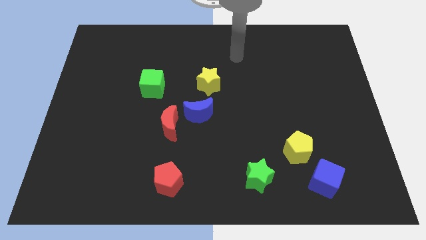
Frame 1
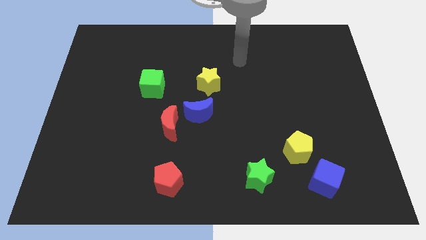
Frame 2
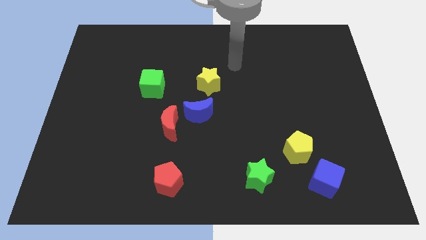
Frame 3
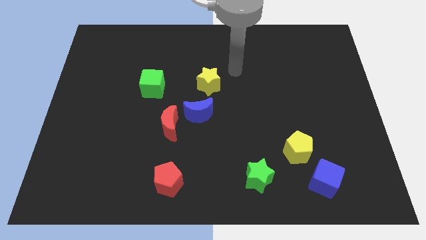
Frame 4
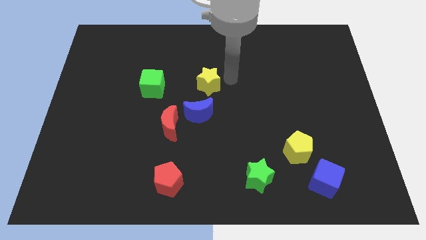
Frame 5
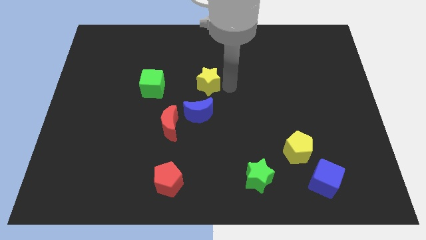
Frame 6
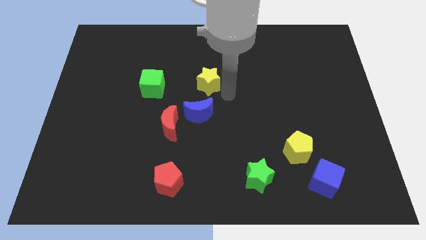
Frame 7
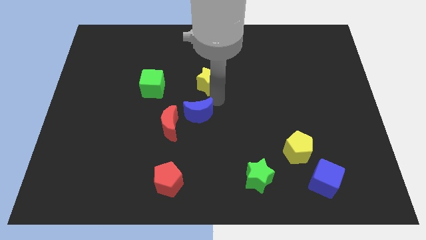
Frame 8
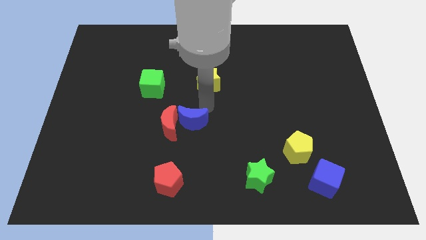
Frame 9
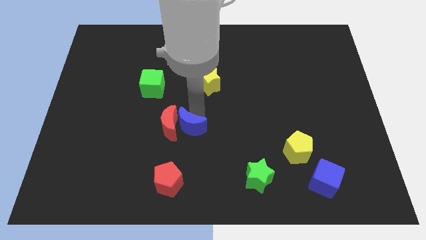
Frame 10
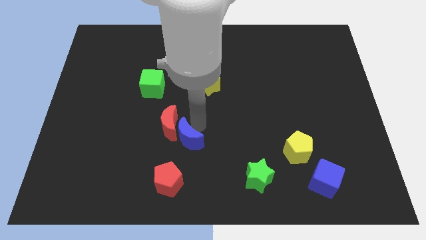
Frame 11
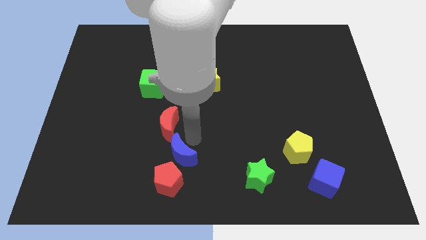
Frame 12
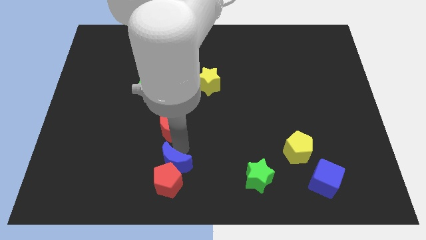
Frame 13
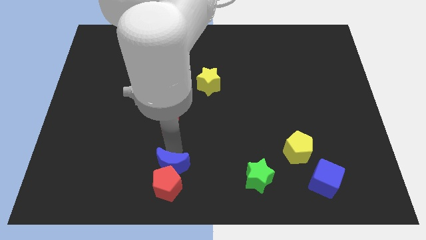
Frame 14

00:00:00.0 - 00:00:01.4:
separate the red moon from the blue moon

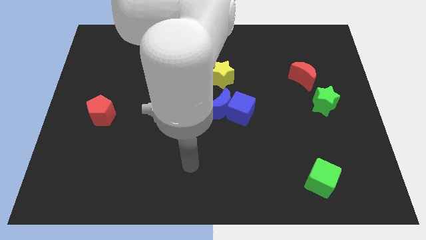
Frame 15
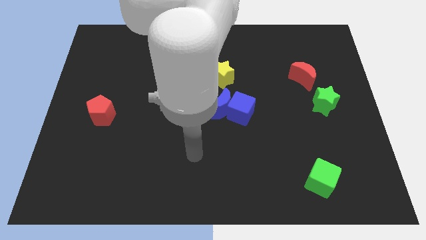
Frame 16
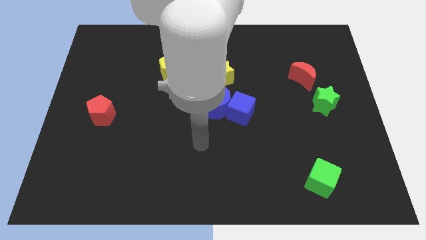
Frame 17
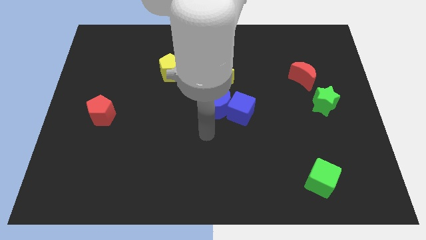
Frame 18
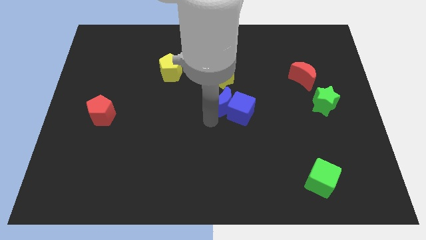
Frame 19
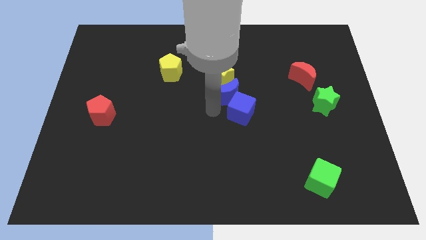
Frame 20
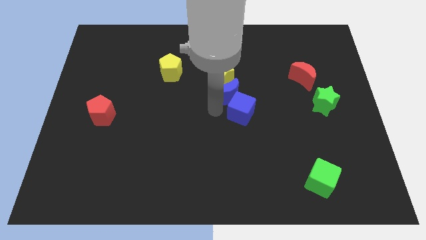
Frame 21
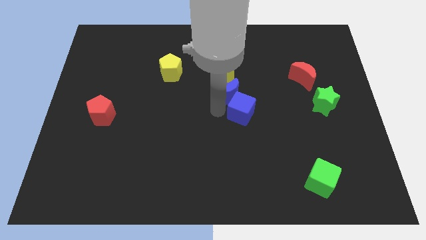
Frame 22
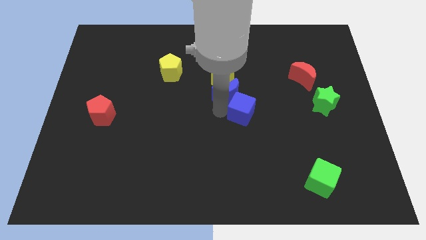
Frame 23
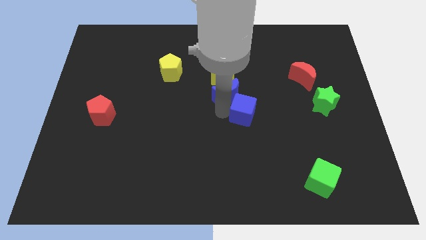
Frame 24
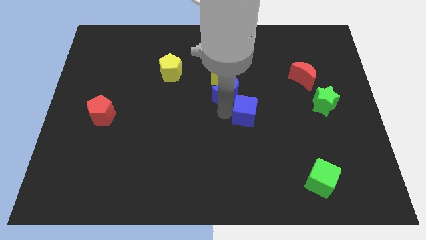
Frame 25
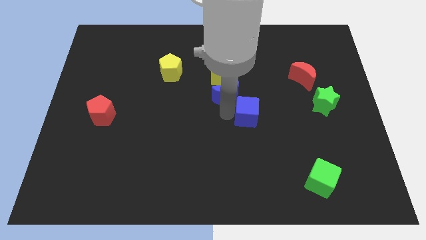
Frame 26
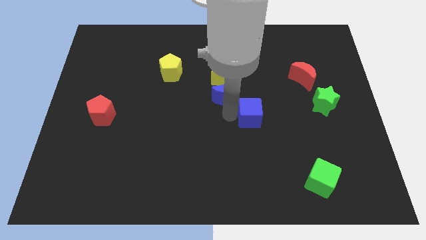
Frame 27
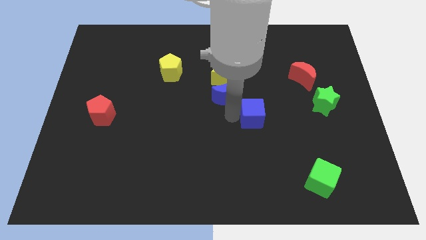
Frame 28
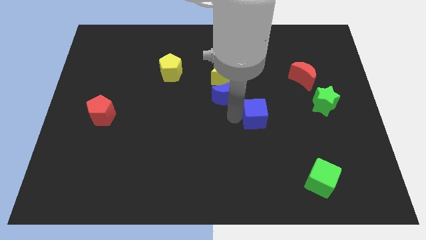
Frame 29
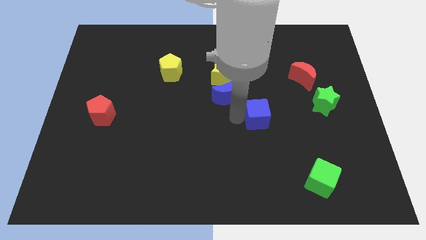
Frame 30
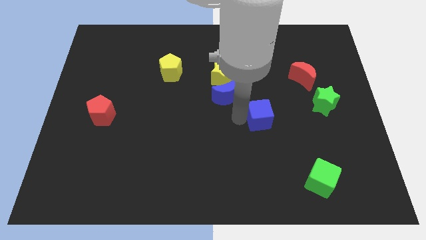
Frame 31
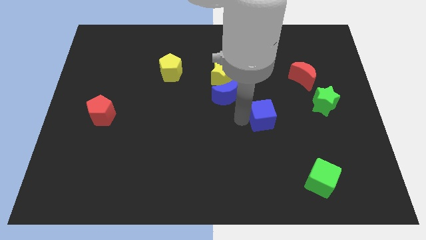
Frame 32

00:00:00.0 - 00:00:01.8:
move the blue cube away from the blue moon

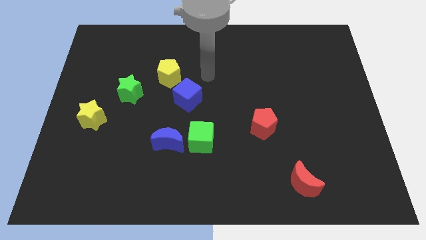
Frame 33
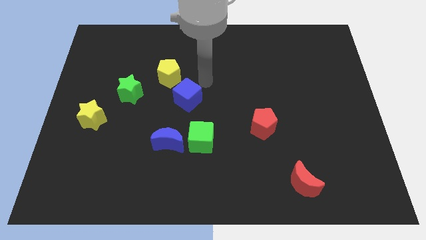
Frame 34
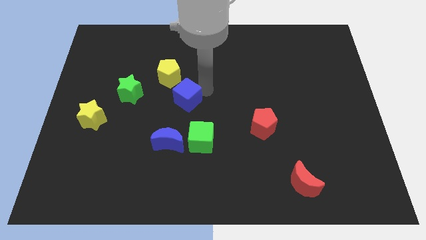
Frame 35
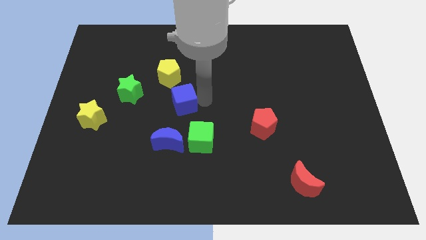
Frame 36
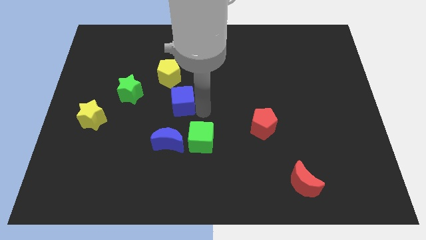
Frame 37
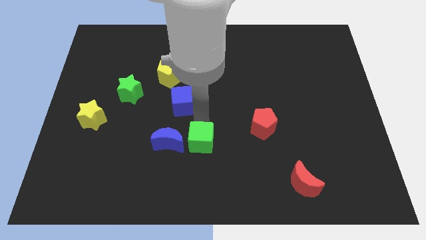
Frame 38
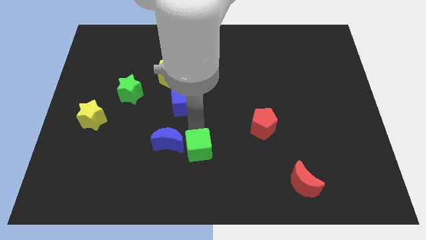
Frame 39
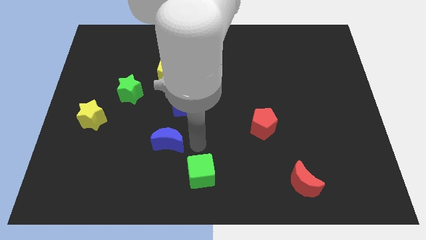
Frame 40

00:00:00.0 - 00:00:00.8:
move the blue moon away from the green cube

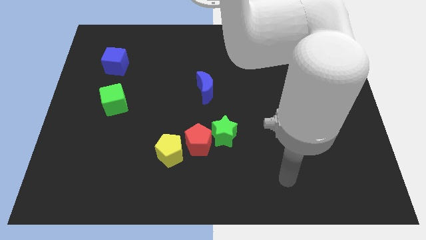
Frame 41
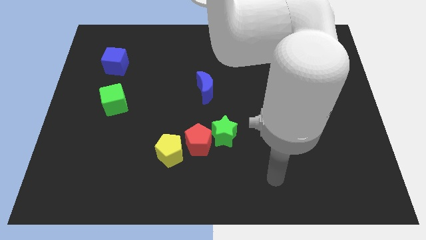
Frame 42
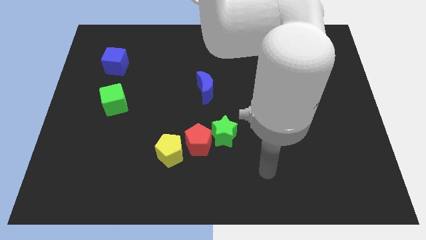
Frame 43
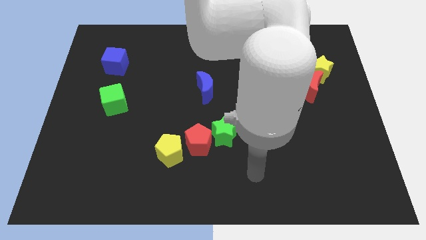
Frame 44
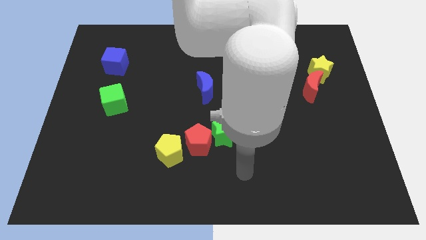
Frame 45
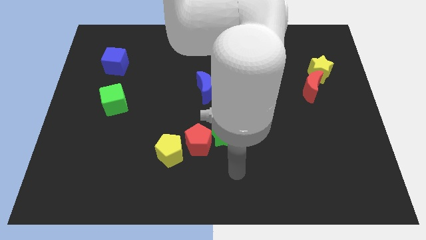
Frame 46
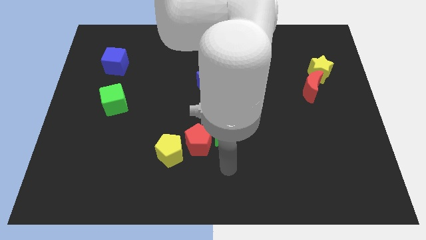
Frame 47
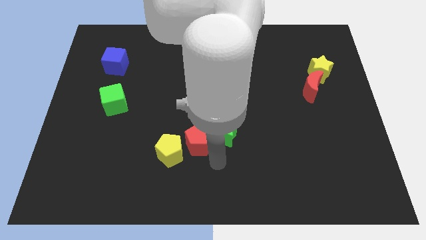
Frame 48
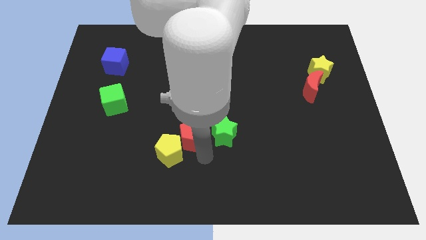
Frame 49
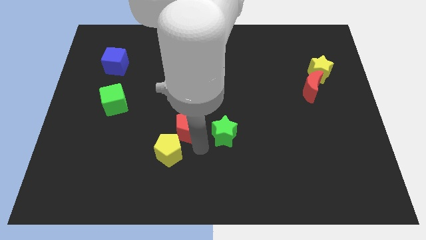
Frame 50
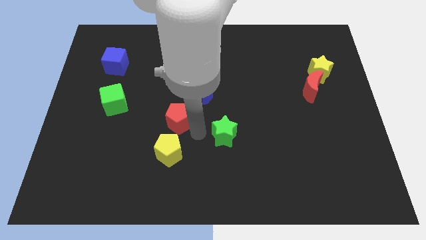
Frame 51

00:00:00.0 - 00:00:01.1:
separate the green star from the red pentagon

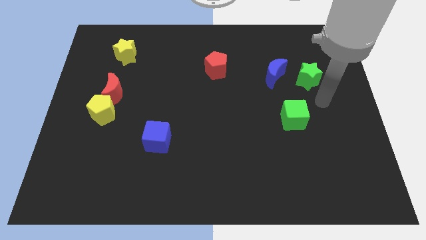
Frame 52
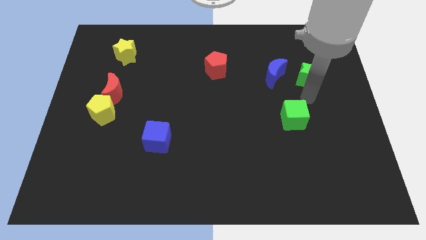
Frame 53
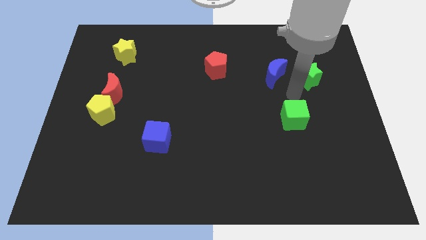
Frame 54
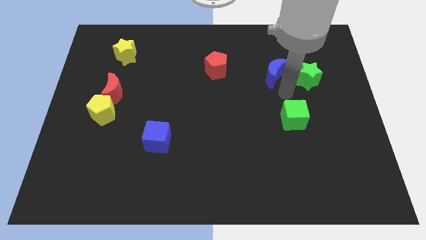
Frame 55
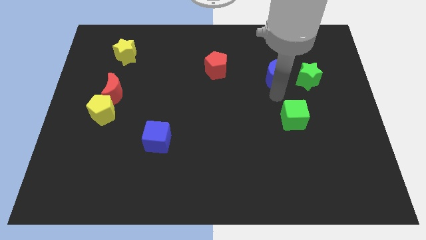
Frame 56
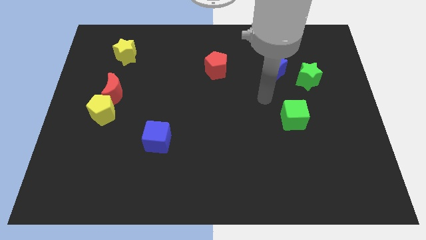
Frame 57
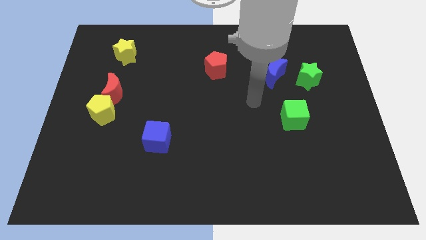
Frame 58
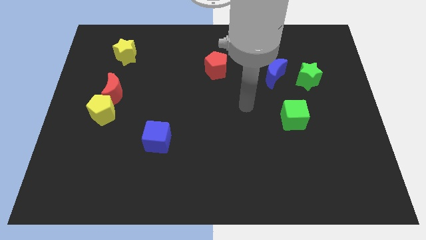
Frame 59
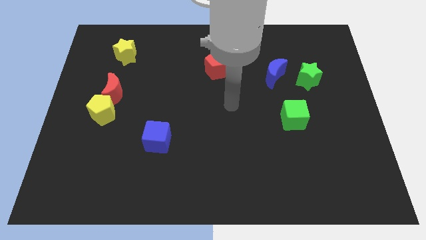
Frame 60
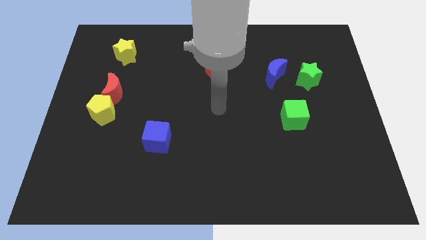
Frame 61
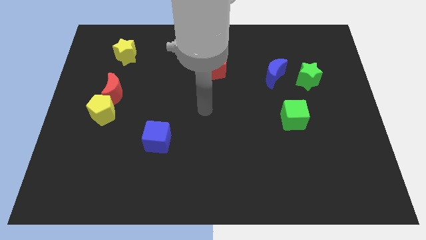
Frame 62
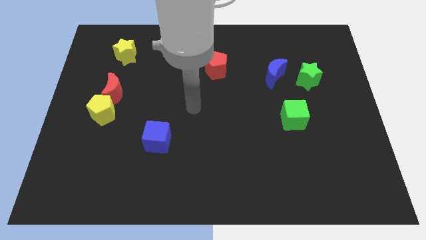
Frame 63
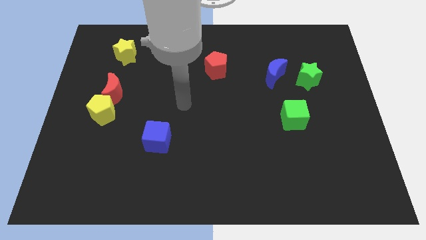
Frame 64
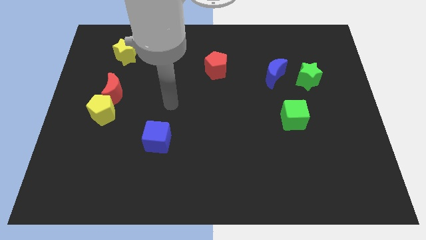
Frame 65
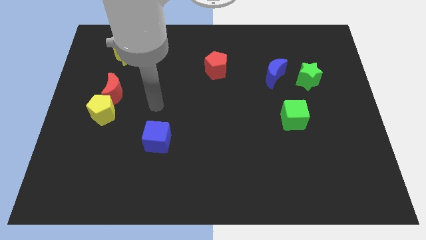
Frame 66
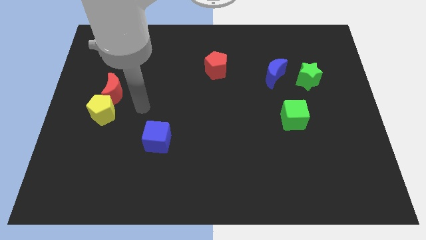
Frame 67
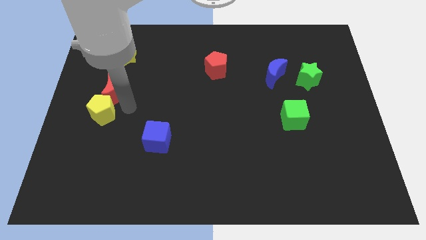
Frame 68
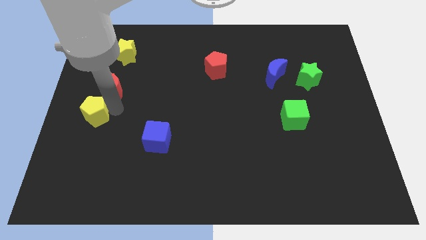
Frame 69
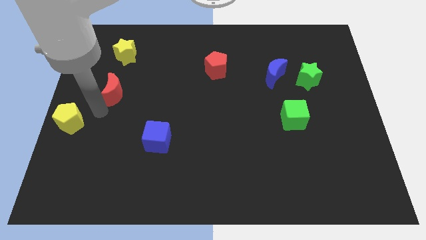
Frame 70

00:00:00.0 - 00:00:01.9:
separate the red moon from the yellow pentagon

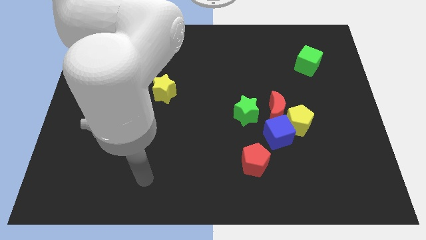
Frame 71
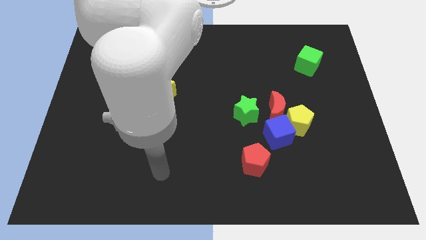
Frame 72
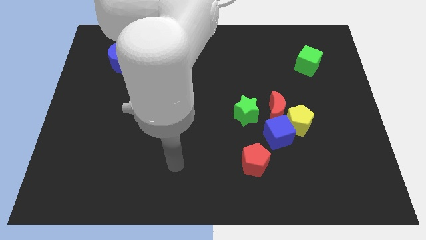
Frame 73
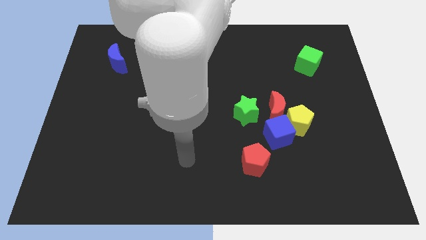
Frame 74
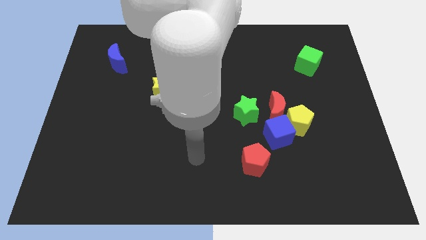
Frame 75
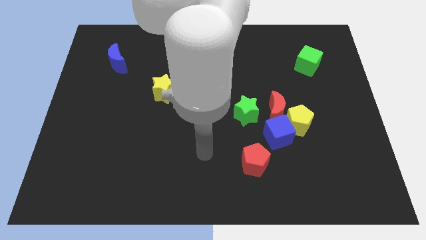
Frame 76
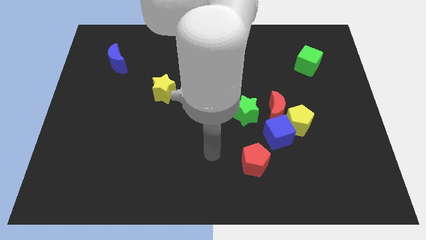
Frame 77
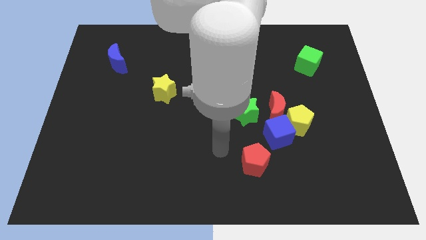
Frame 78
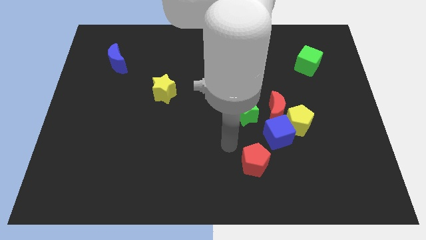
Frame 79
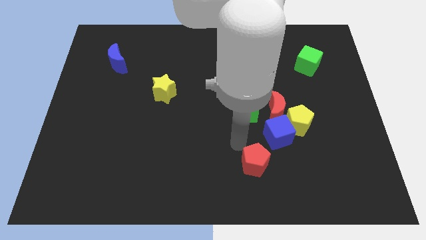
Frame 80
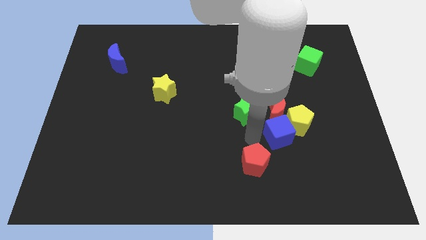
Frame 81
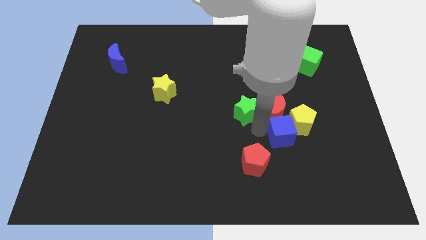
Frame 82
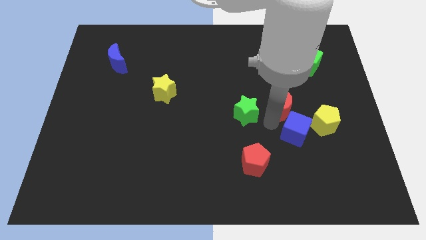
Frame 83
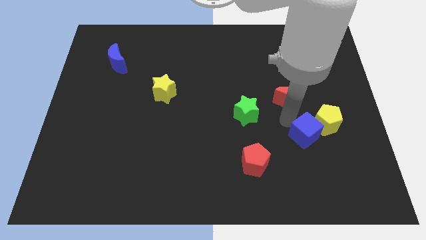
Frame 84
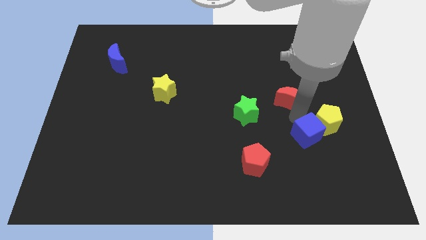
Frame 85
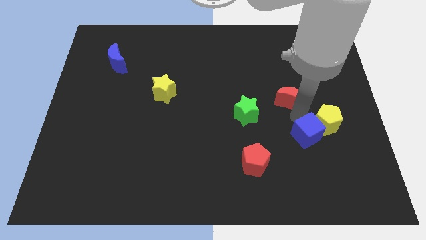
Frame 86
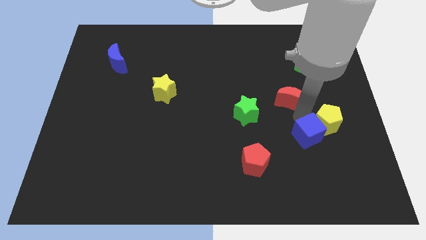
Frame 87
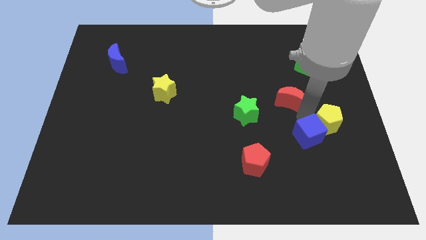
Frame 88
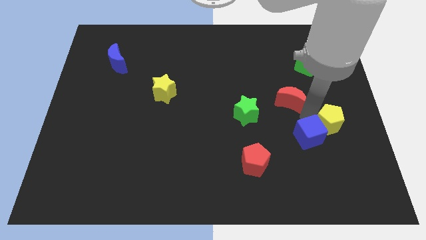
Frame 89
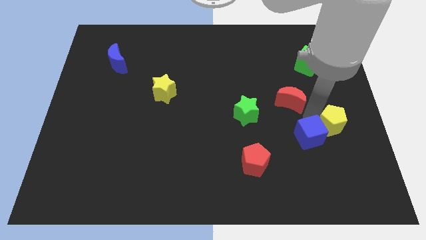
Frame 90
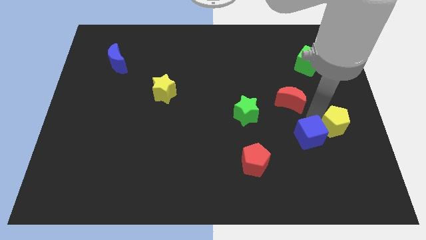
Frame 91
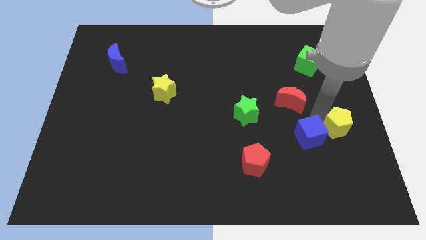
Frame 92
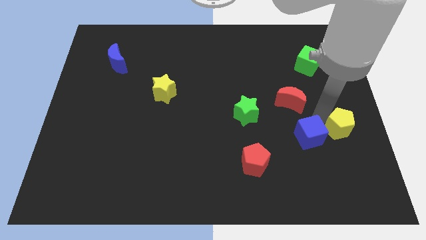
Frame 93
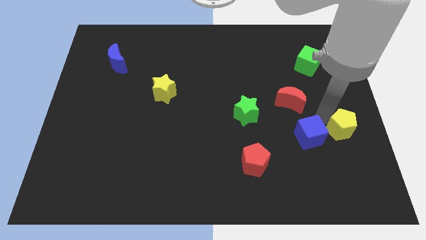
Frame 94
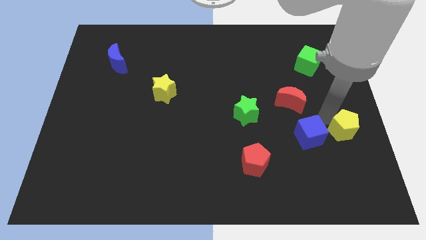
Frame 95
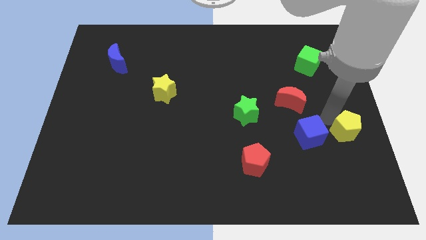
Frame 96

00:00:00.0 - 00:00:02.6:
pull the yellow pentagon apart from the blue cube and red moon
